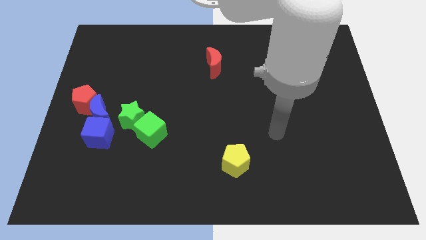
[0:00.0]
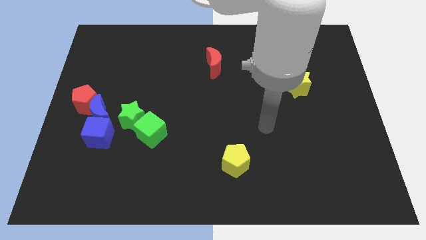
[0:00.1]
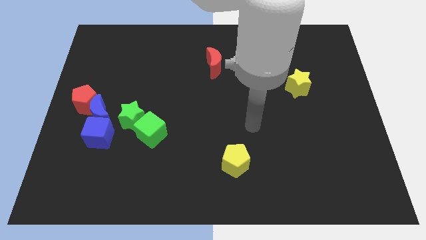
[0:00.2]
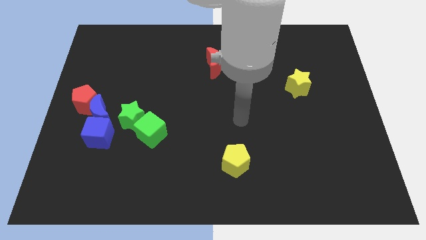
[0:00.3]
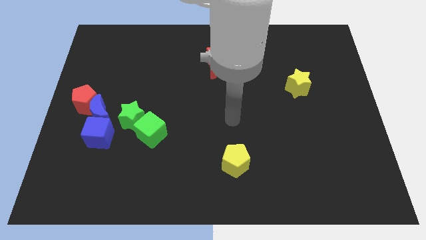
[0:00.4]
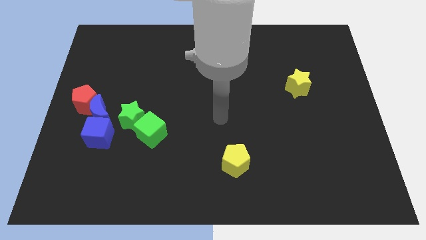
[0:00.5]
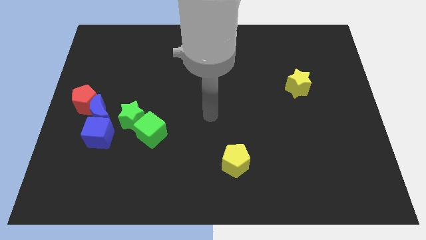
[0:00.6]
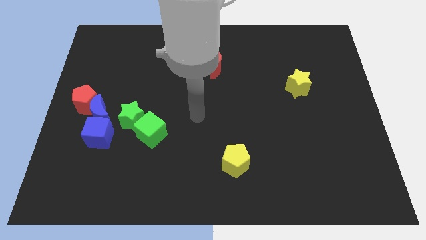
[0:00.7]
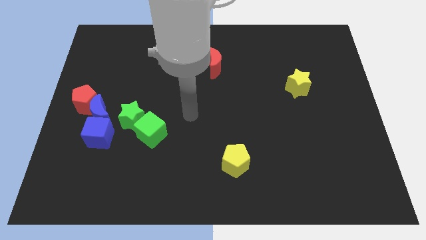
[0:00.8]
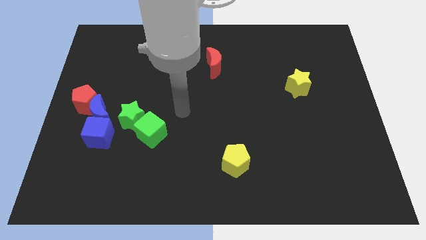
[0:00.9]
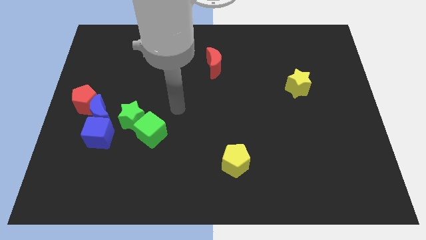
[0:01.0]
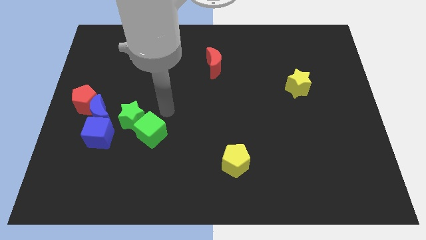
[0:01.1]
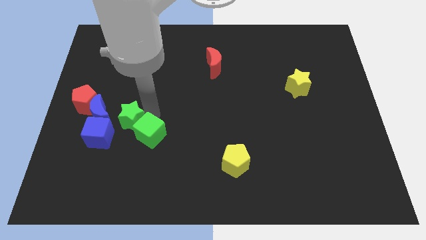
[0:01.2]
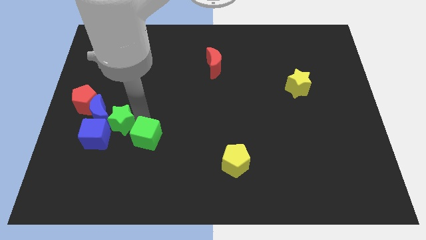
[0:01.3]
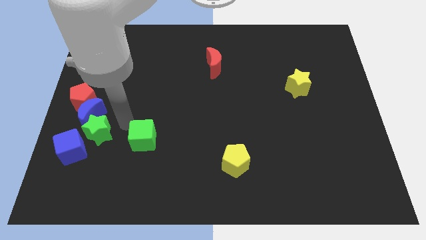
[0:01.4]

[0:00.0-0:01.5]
move the green cube away from the green star

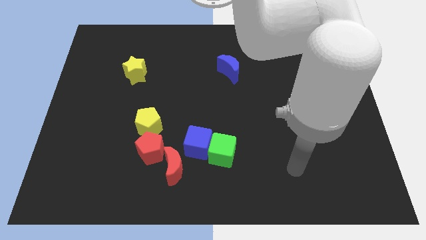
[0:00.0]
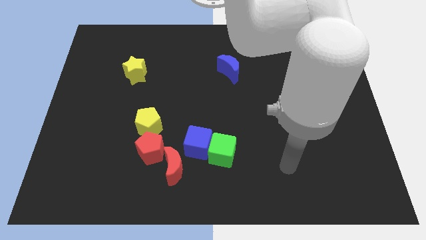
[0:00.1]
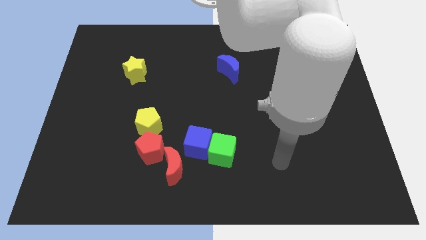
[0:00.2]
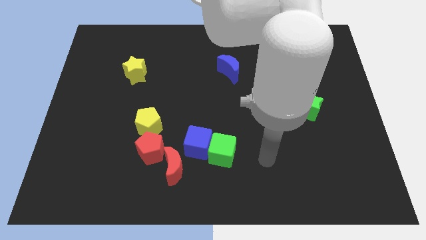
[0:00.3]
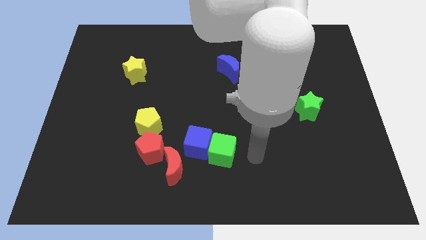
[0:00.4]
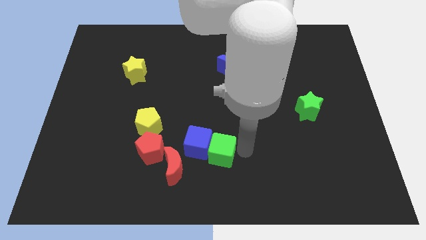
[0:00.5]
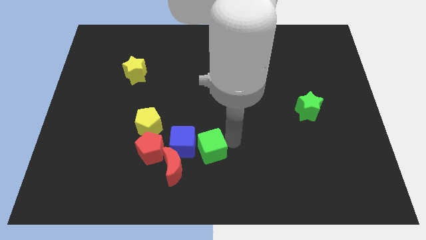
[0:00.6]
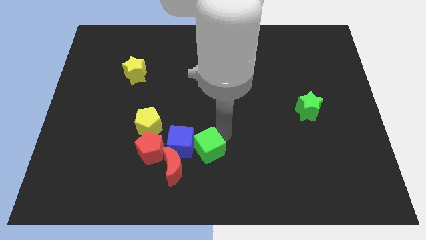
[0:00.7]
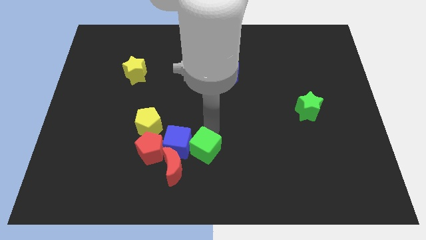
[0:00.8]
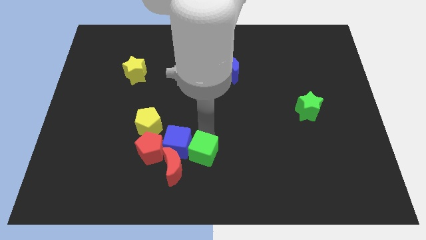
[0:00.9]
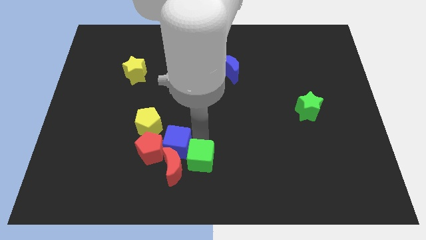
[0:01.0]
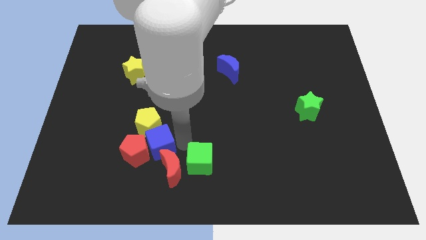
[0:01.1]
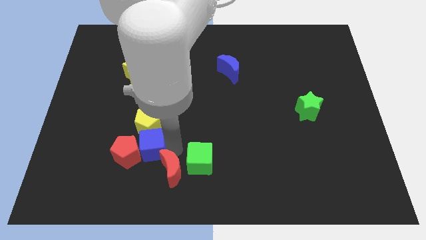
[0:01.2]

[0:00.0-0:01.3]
move the green cube away from the blue cube

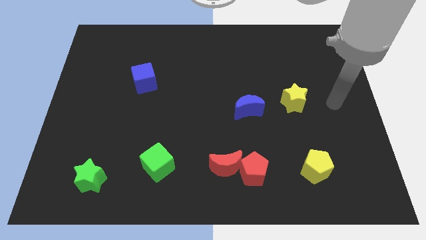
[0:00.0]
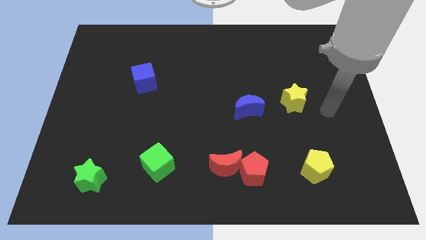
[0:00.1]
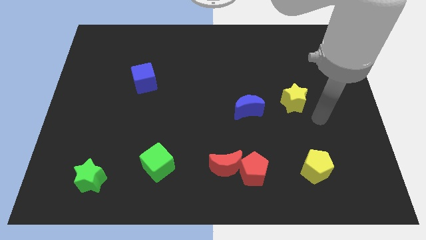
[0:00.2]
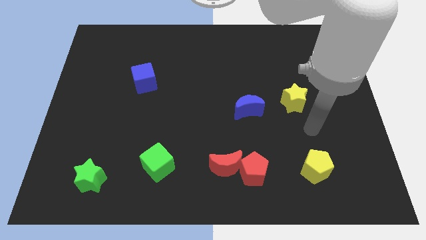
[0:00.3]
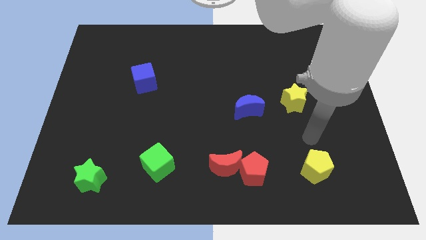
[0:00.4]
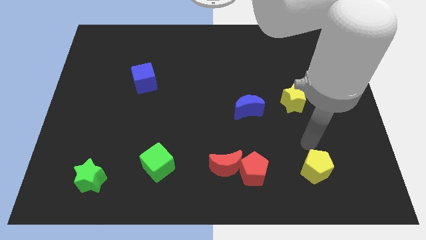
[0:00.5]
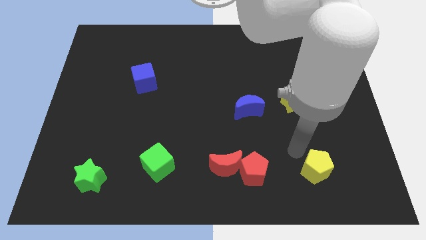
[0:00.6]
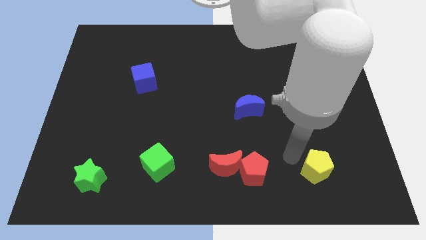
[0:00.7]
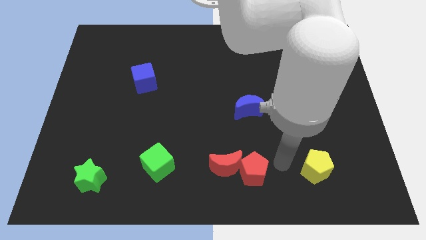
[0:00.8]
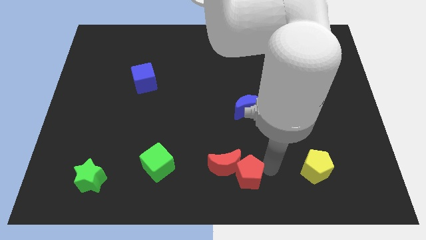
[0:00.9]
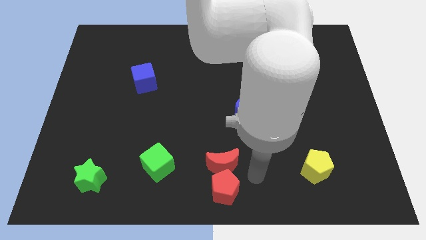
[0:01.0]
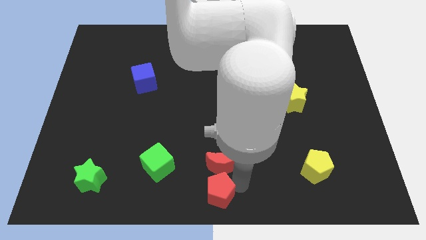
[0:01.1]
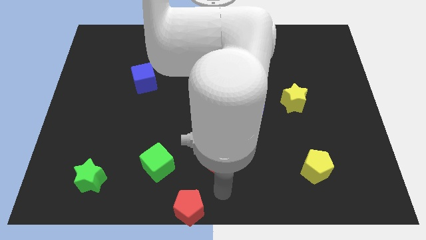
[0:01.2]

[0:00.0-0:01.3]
pull the red moon apart from the red pentagon

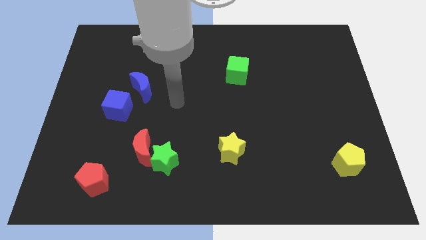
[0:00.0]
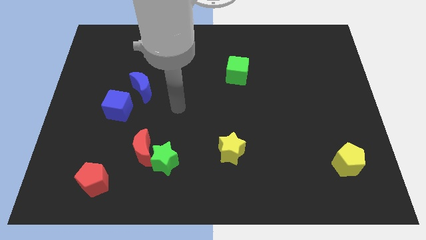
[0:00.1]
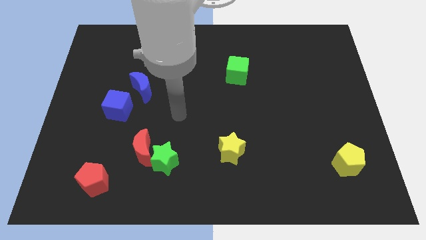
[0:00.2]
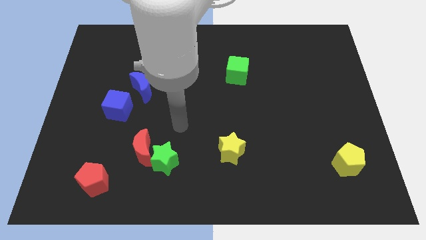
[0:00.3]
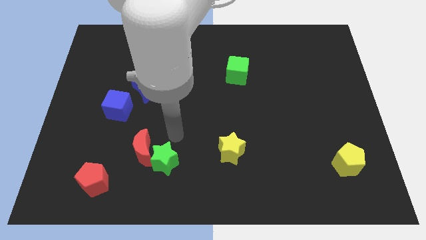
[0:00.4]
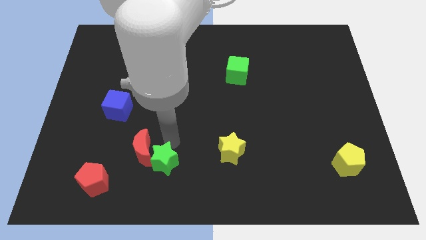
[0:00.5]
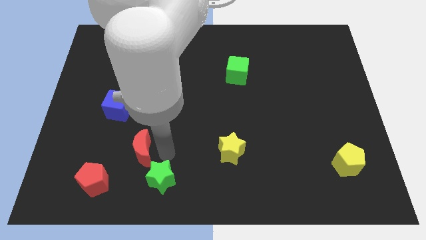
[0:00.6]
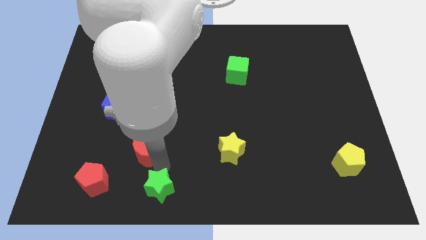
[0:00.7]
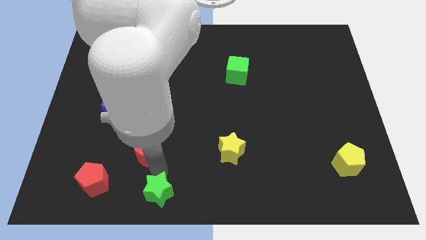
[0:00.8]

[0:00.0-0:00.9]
separate the red moon from the green star

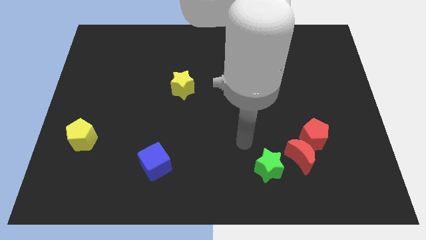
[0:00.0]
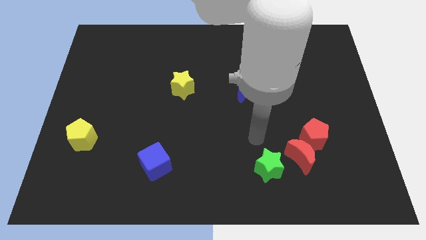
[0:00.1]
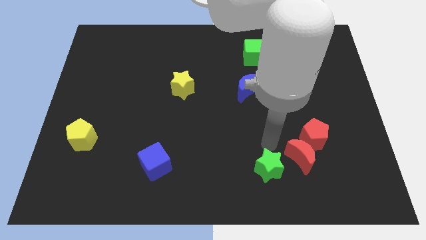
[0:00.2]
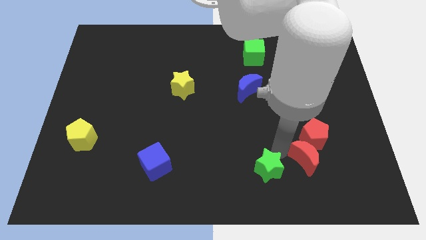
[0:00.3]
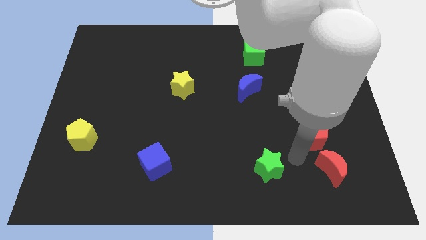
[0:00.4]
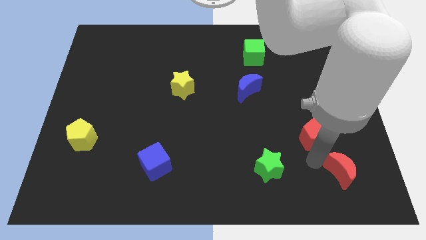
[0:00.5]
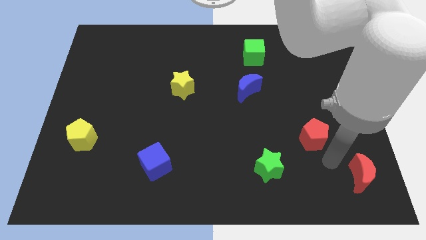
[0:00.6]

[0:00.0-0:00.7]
separate the red pentagon from the red moon

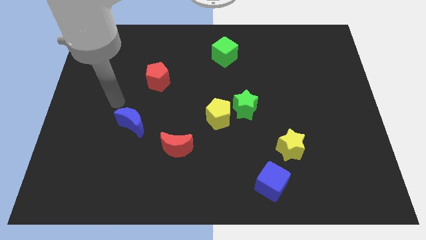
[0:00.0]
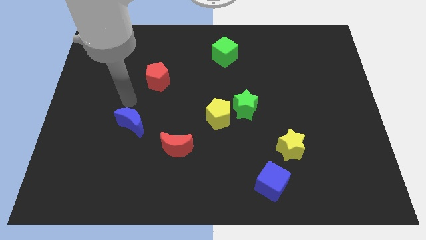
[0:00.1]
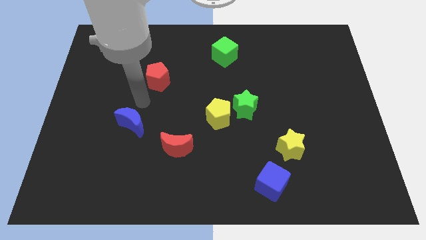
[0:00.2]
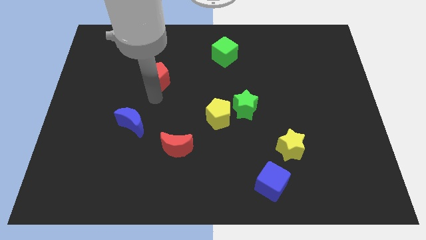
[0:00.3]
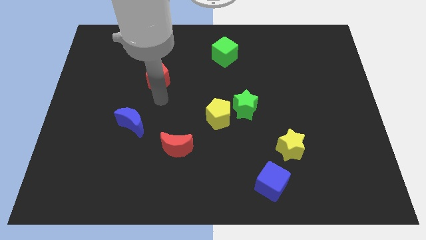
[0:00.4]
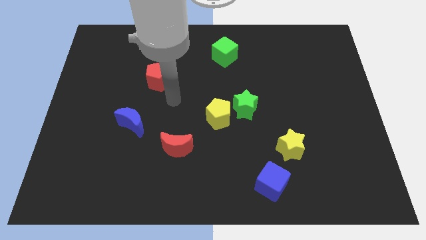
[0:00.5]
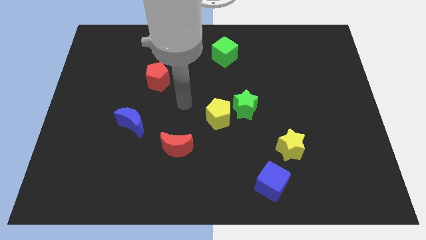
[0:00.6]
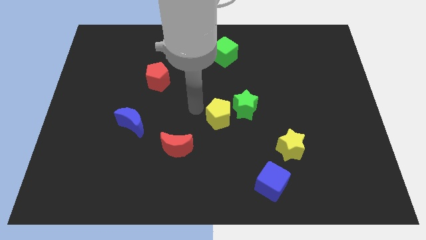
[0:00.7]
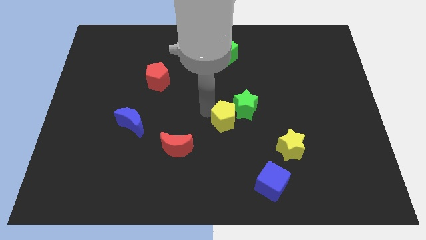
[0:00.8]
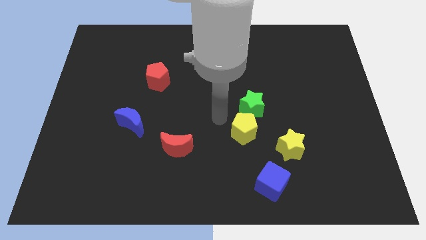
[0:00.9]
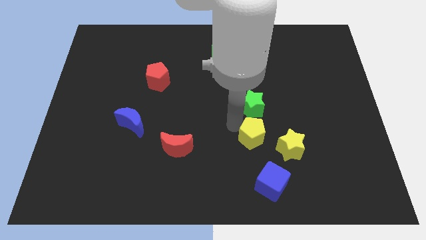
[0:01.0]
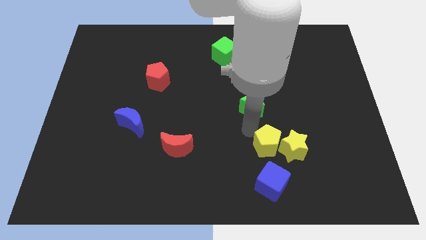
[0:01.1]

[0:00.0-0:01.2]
separate the green star from the yellow pentagon

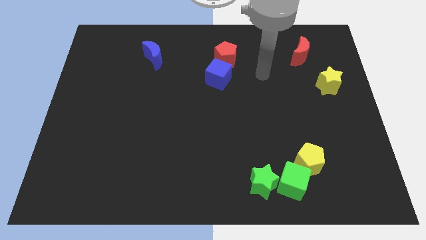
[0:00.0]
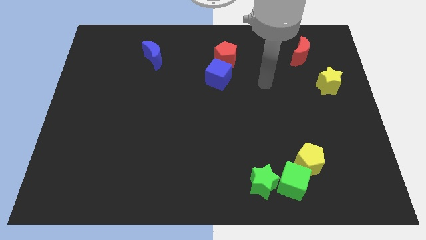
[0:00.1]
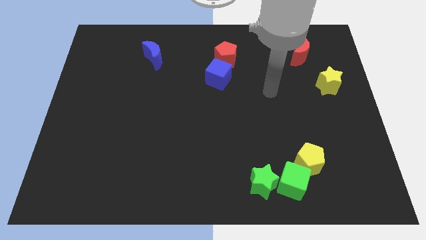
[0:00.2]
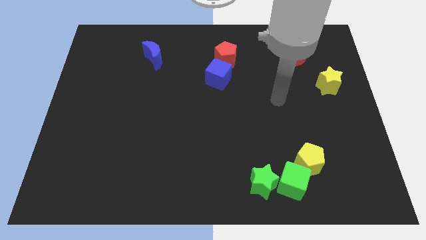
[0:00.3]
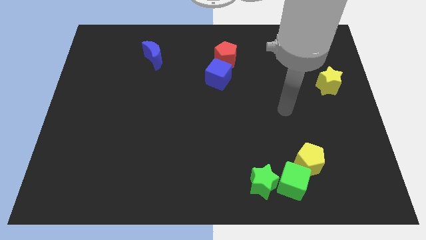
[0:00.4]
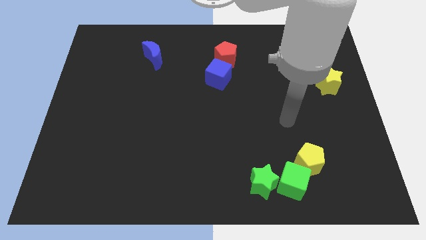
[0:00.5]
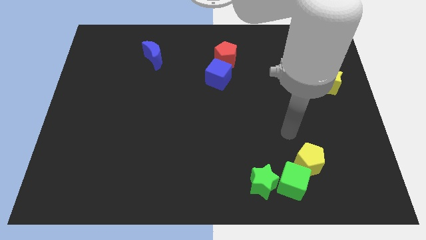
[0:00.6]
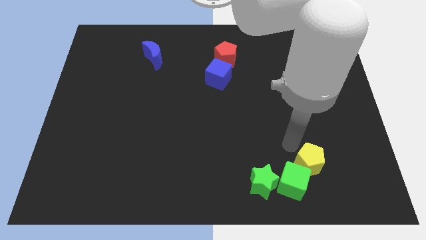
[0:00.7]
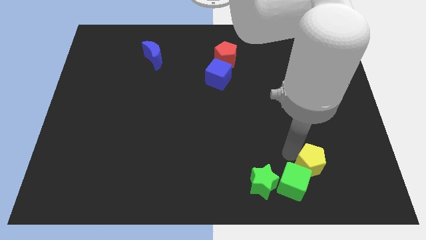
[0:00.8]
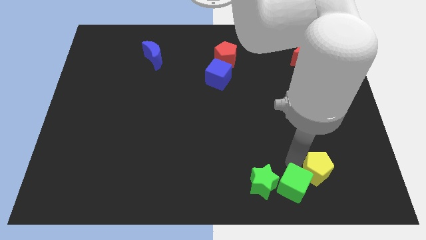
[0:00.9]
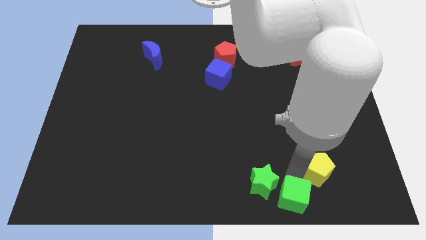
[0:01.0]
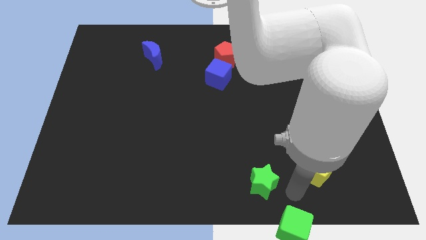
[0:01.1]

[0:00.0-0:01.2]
move the green star away from the green cube

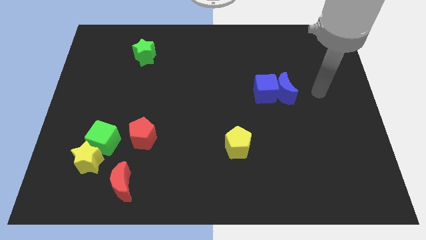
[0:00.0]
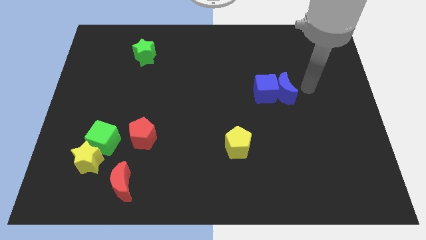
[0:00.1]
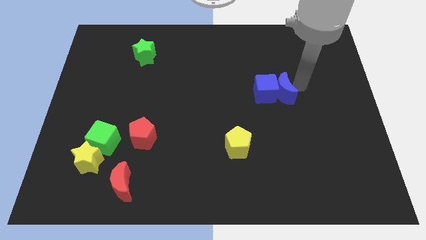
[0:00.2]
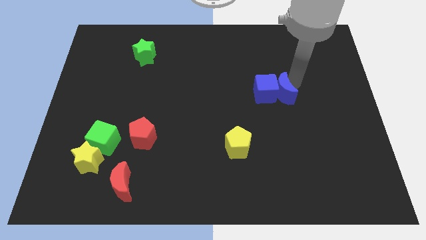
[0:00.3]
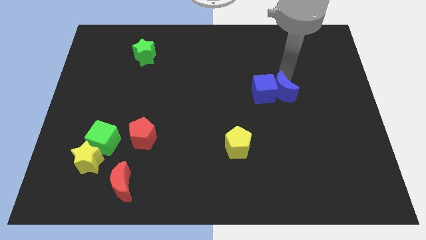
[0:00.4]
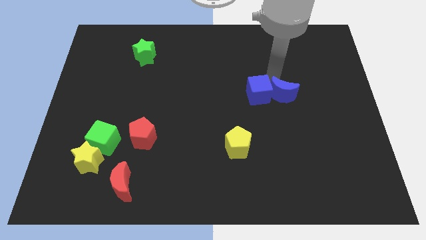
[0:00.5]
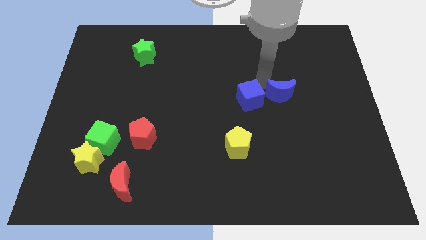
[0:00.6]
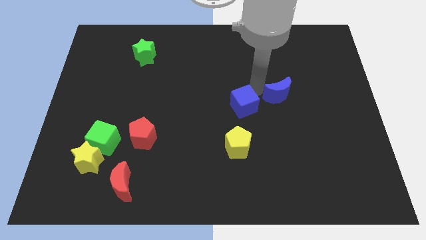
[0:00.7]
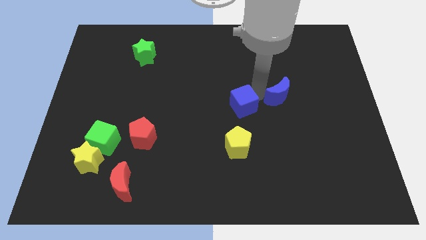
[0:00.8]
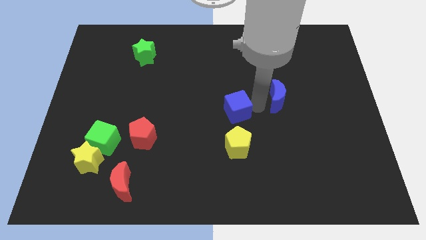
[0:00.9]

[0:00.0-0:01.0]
separate the blue moon from the blue cube

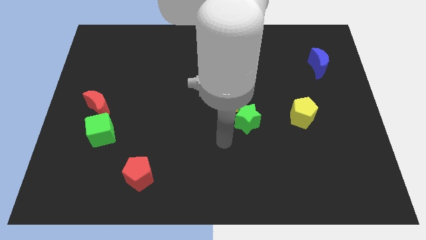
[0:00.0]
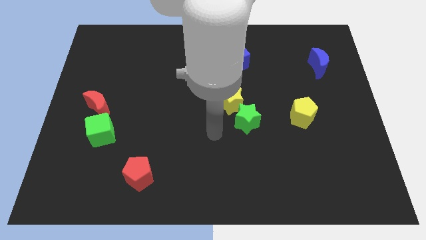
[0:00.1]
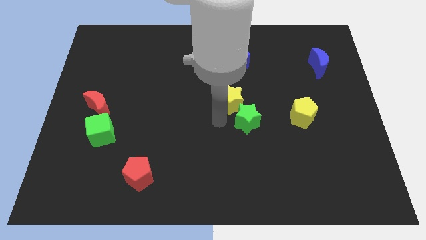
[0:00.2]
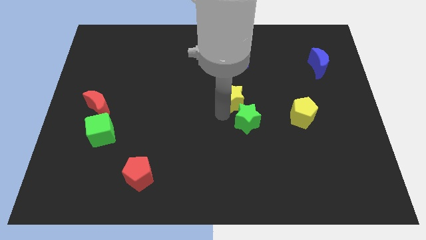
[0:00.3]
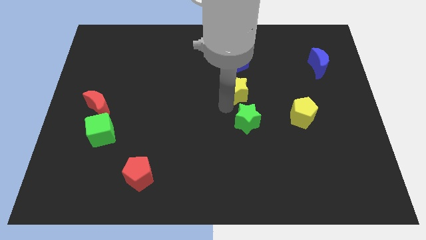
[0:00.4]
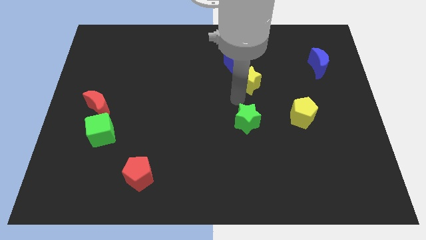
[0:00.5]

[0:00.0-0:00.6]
pull the green star apart from the yellow star
